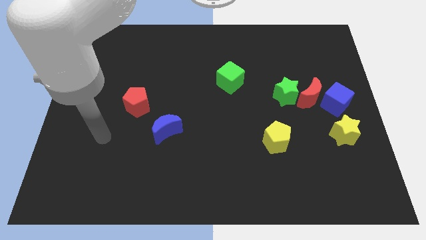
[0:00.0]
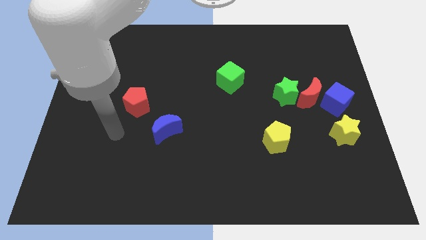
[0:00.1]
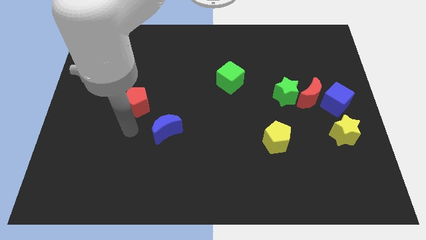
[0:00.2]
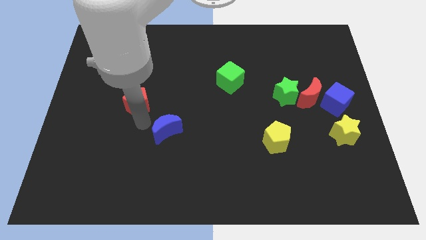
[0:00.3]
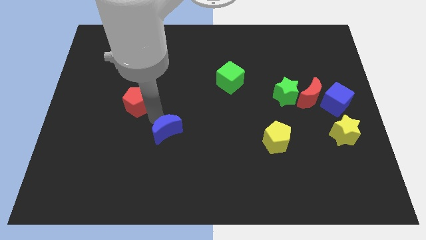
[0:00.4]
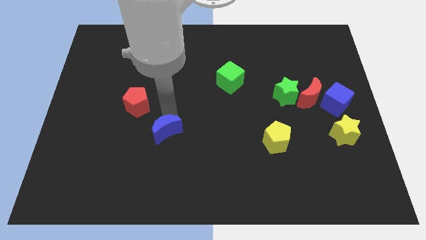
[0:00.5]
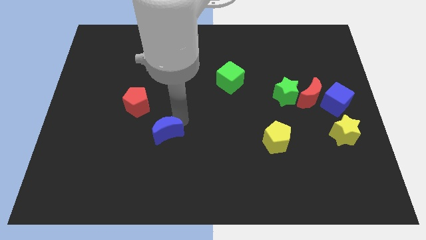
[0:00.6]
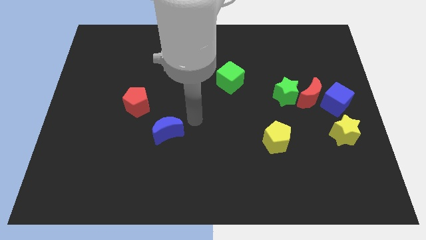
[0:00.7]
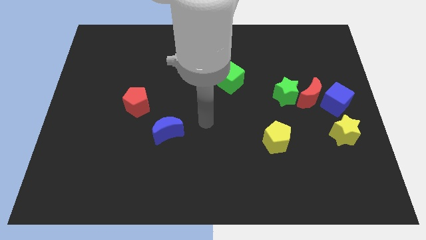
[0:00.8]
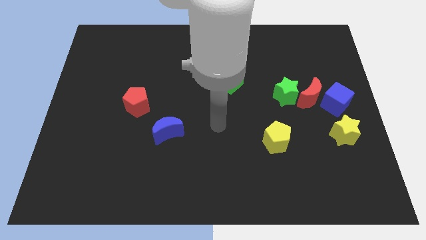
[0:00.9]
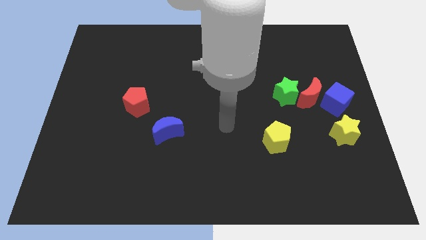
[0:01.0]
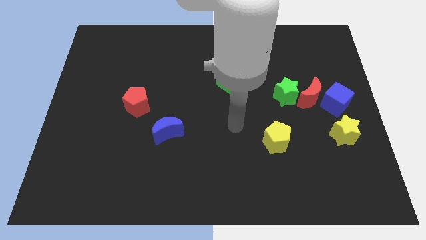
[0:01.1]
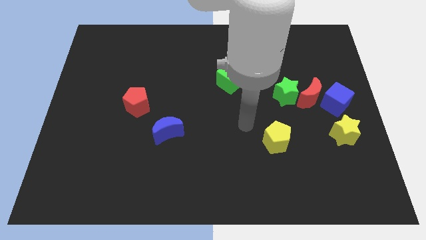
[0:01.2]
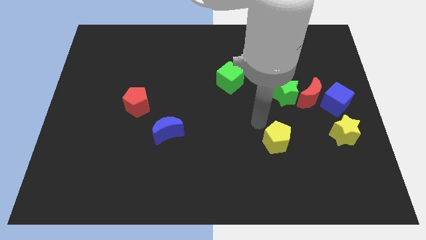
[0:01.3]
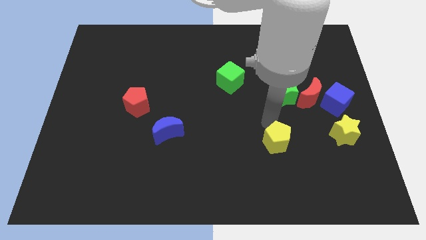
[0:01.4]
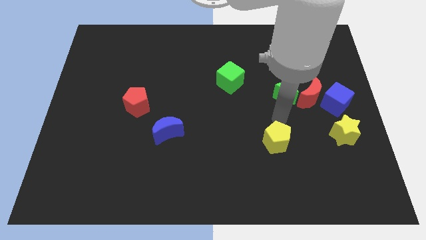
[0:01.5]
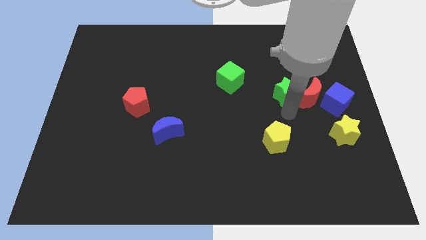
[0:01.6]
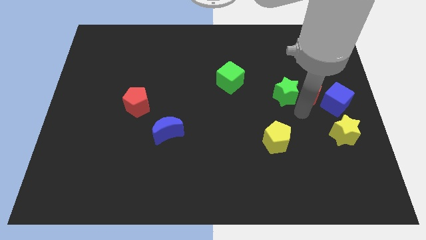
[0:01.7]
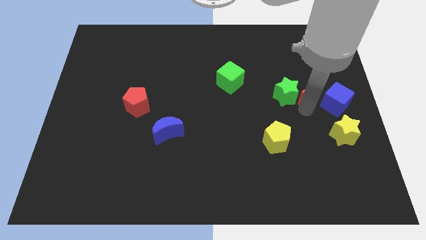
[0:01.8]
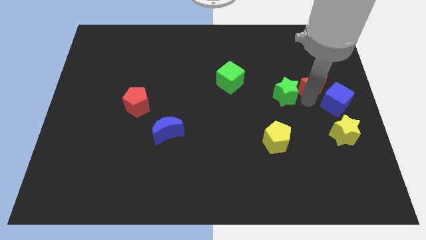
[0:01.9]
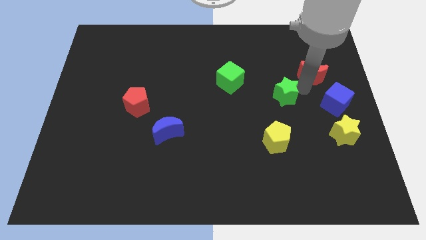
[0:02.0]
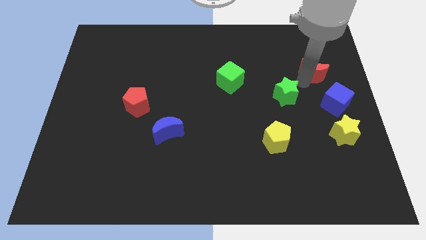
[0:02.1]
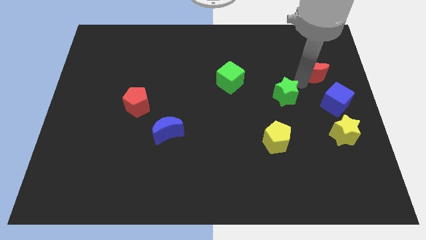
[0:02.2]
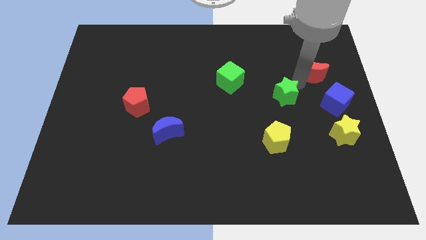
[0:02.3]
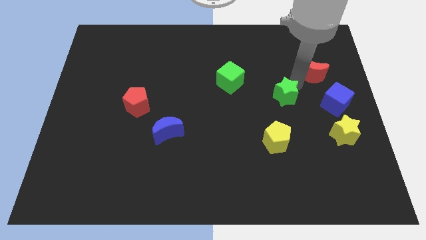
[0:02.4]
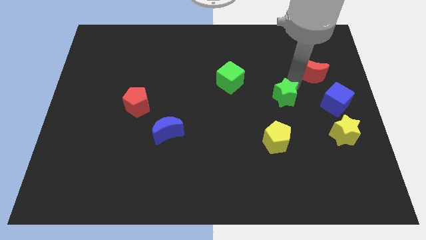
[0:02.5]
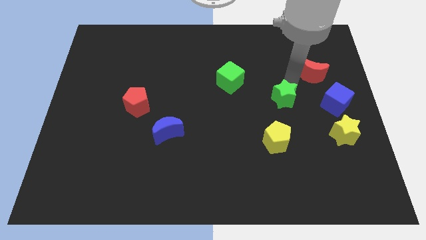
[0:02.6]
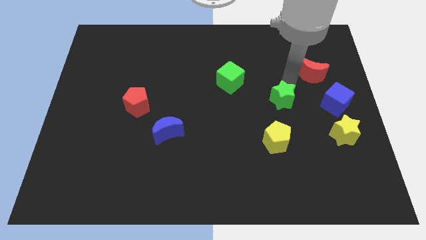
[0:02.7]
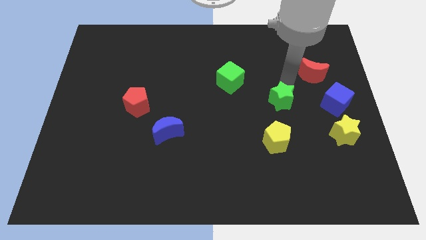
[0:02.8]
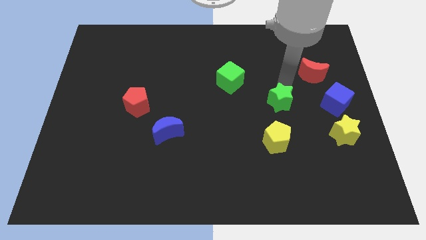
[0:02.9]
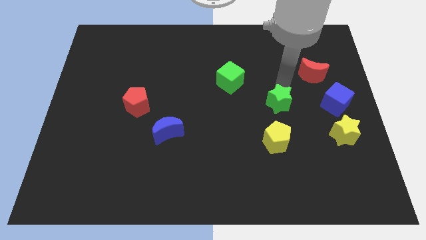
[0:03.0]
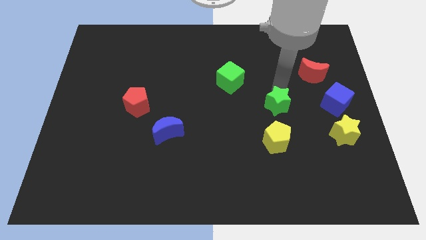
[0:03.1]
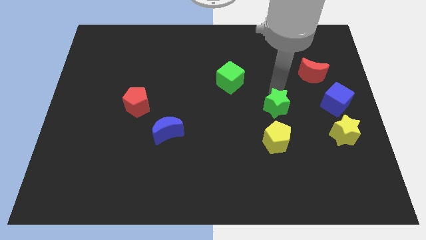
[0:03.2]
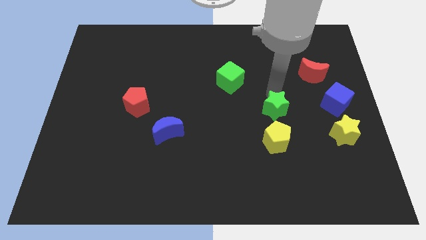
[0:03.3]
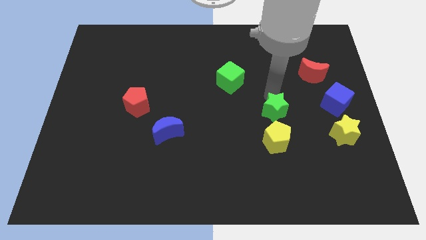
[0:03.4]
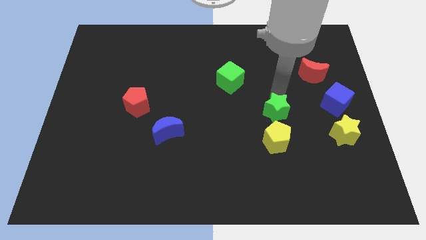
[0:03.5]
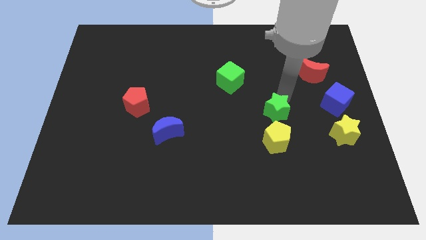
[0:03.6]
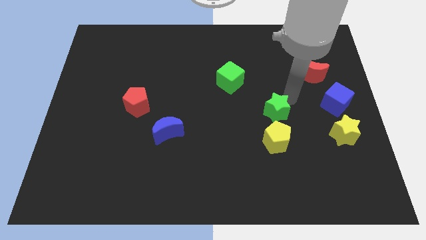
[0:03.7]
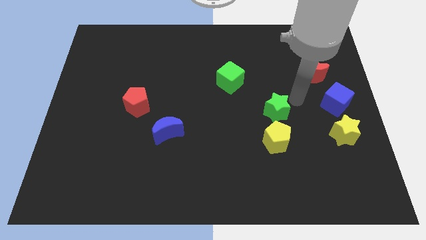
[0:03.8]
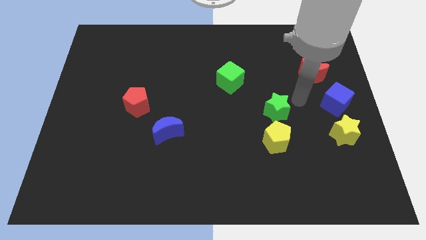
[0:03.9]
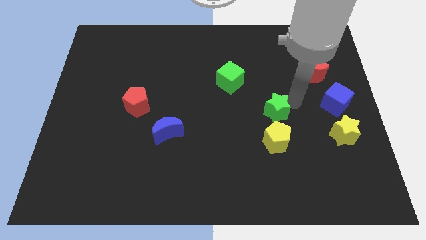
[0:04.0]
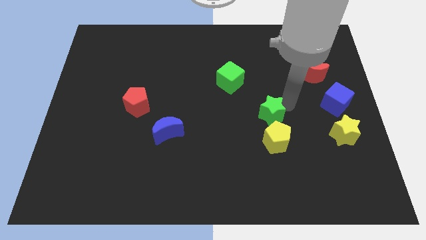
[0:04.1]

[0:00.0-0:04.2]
slightly push the green star downwards and then to the left

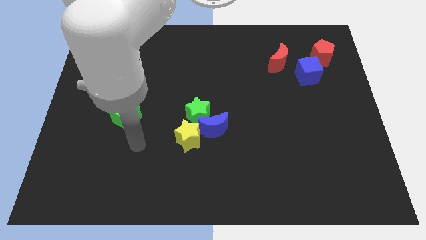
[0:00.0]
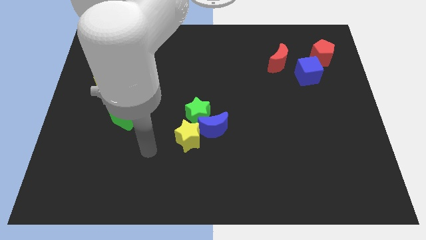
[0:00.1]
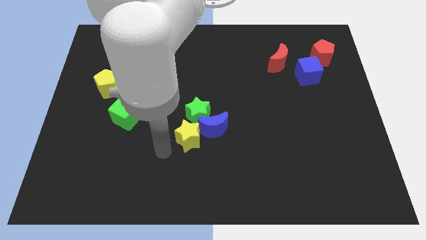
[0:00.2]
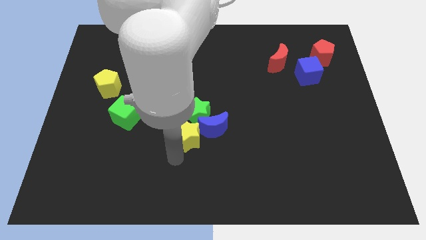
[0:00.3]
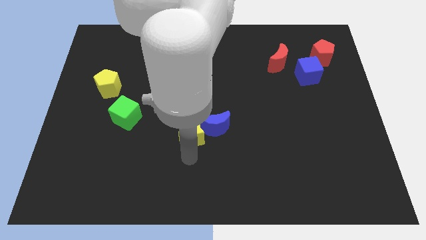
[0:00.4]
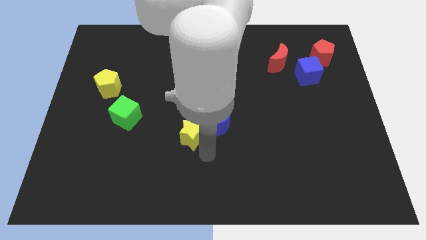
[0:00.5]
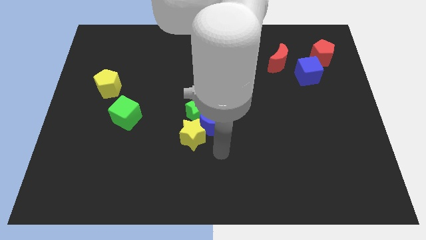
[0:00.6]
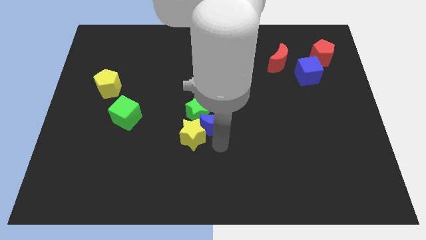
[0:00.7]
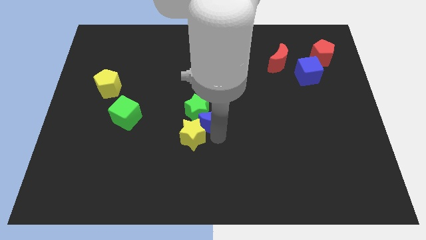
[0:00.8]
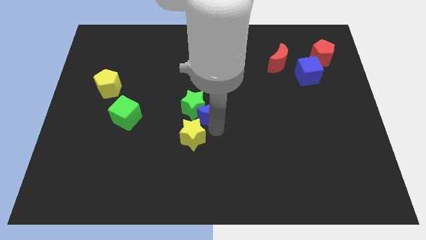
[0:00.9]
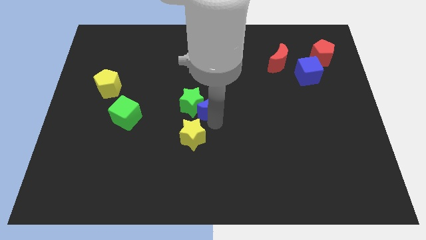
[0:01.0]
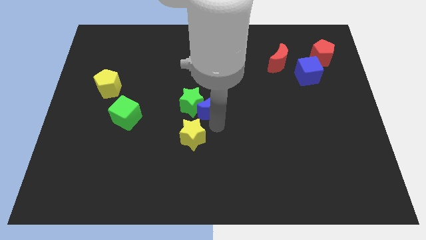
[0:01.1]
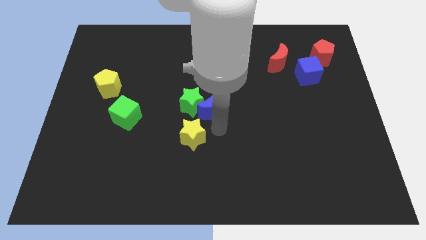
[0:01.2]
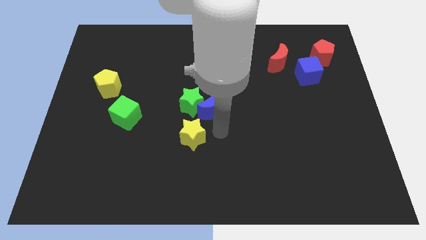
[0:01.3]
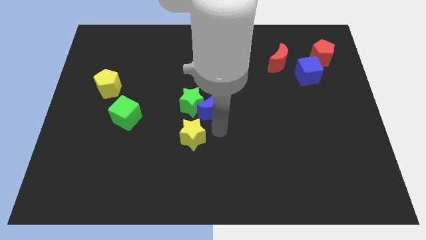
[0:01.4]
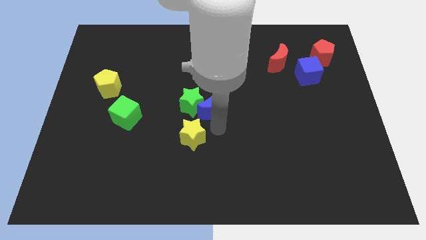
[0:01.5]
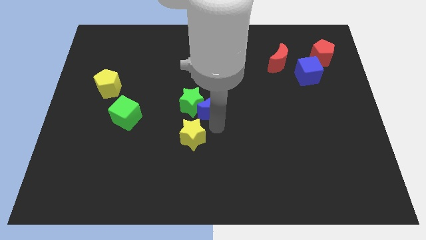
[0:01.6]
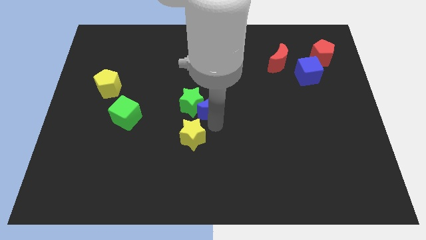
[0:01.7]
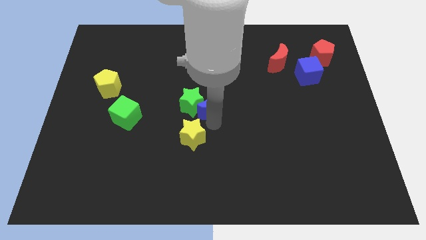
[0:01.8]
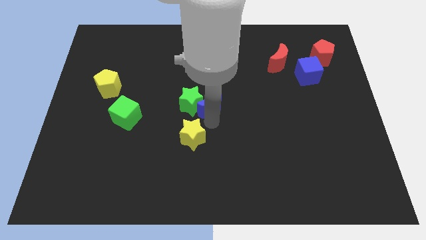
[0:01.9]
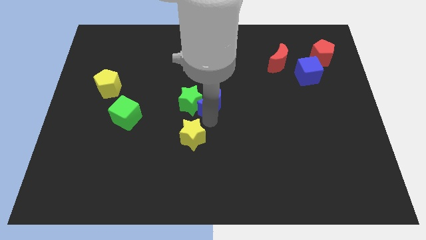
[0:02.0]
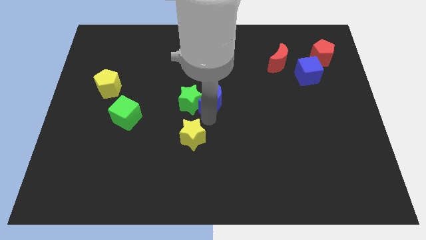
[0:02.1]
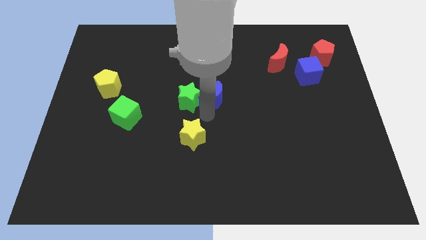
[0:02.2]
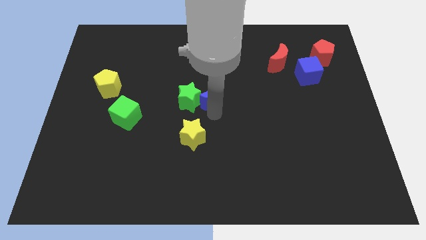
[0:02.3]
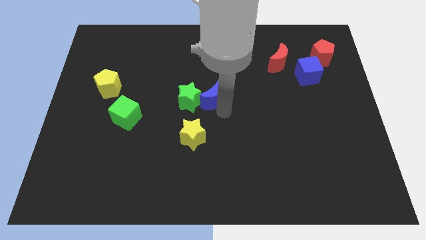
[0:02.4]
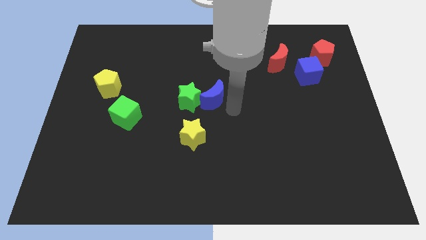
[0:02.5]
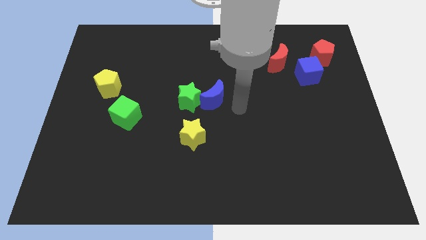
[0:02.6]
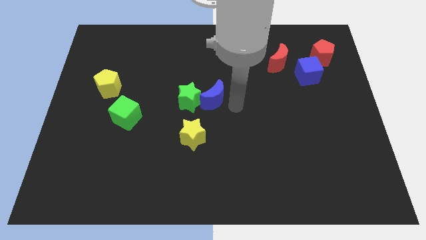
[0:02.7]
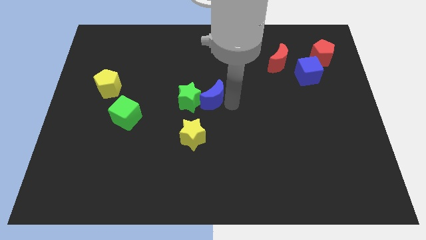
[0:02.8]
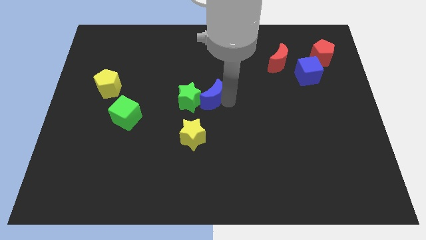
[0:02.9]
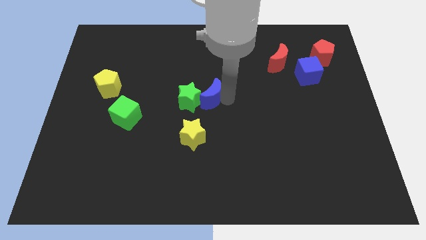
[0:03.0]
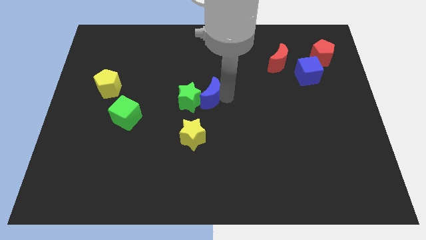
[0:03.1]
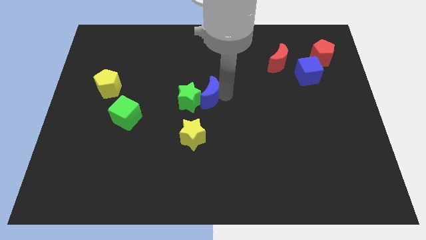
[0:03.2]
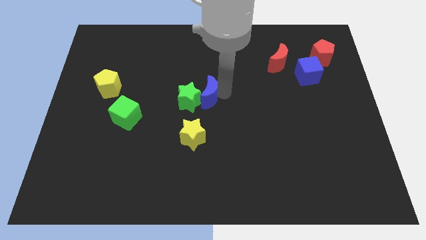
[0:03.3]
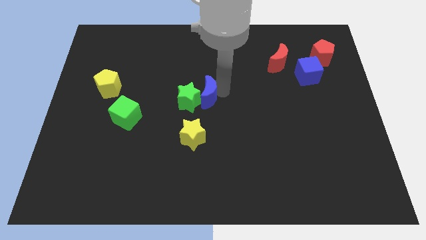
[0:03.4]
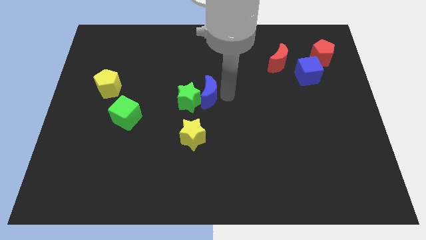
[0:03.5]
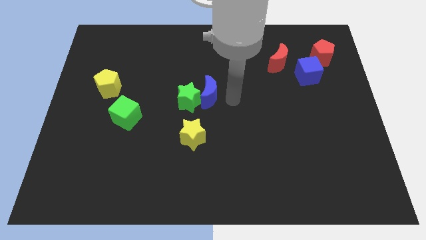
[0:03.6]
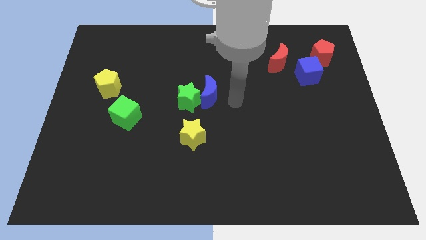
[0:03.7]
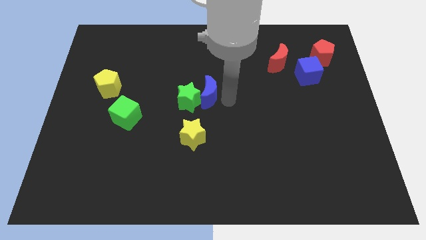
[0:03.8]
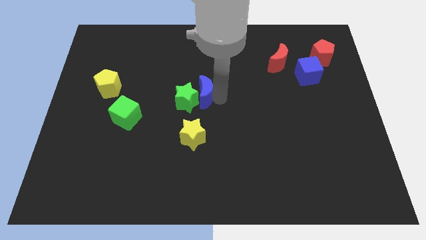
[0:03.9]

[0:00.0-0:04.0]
push the blue moon slightly up and left
